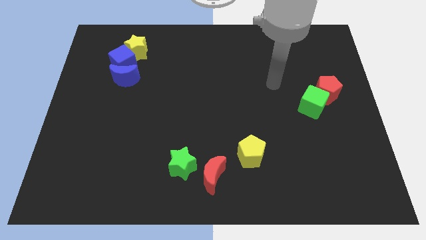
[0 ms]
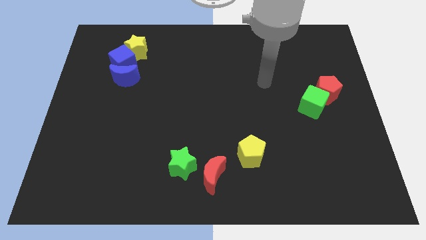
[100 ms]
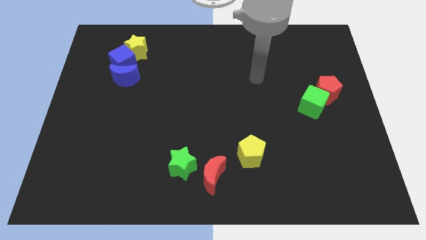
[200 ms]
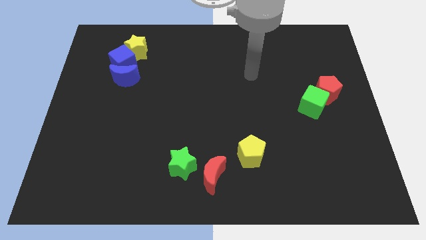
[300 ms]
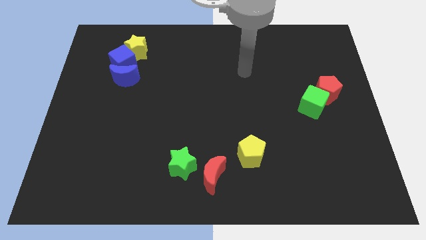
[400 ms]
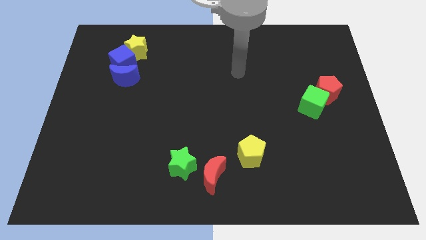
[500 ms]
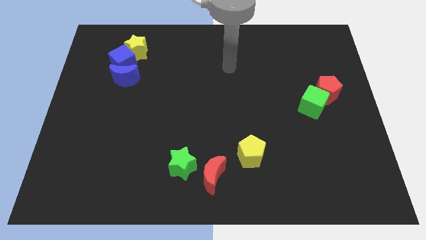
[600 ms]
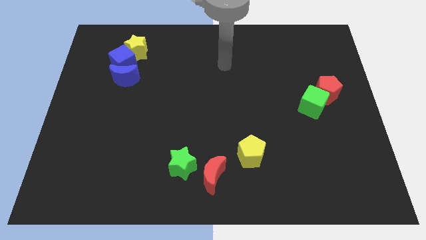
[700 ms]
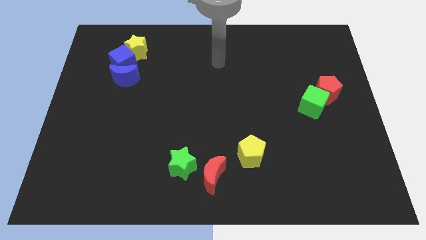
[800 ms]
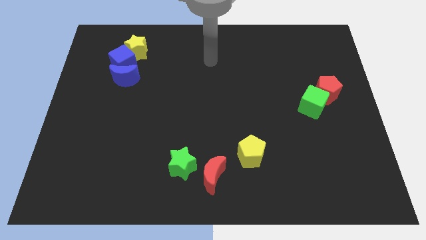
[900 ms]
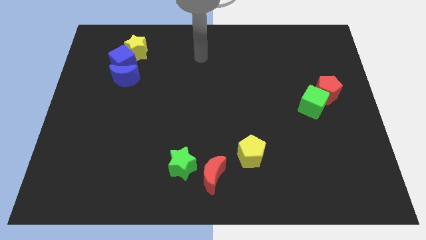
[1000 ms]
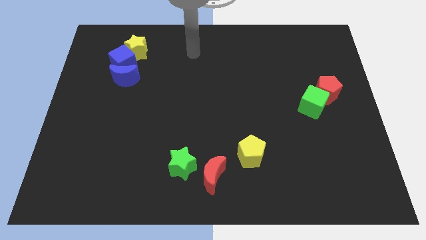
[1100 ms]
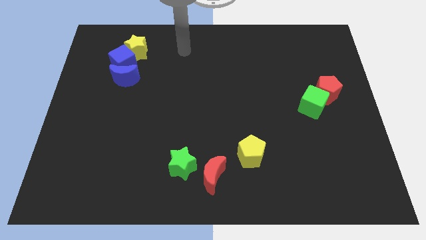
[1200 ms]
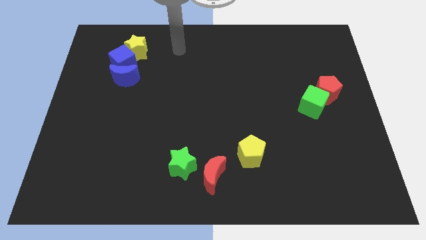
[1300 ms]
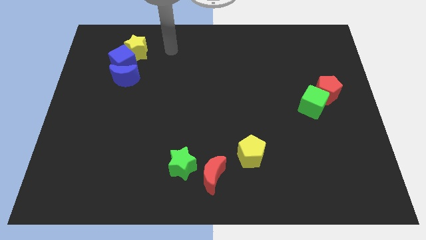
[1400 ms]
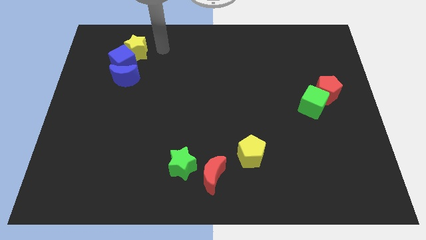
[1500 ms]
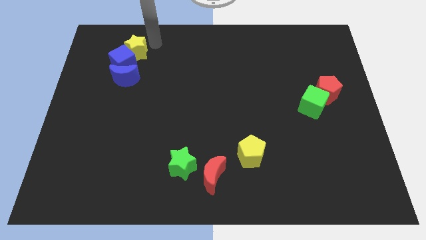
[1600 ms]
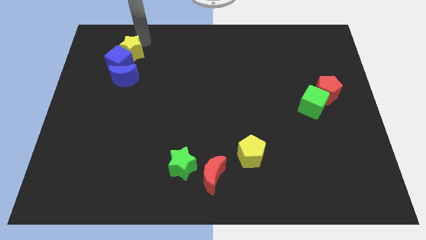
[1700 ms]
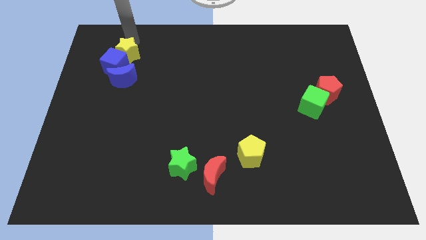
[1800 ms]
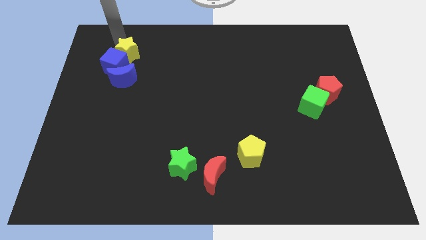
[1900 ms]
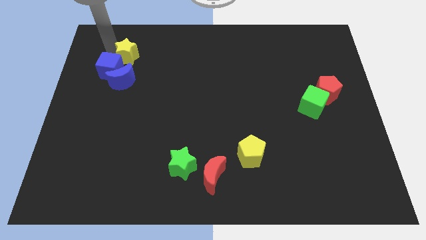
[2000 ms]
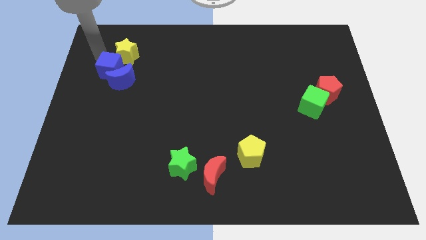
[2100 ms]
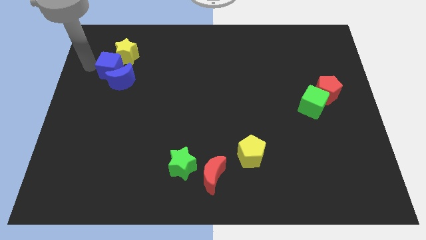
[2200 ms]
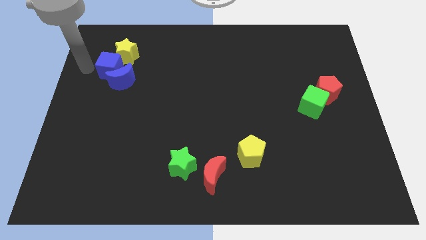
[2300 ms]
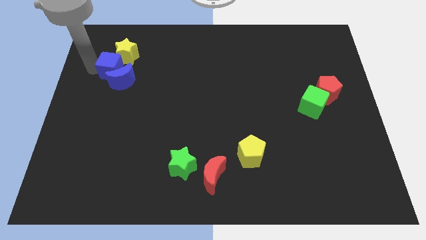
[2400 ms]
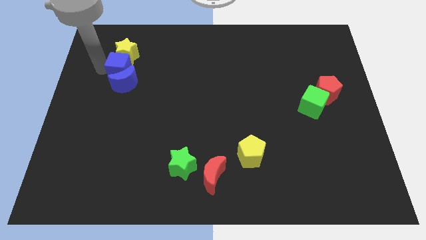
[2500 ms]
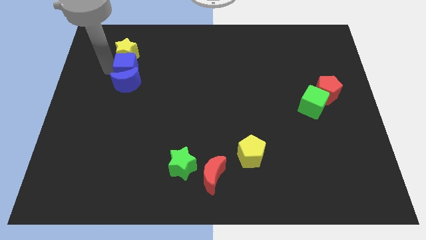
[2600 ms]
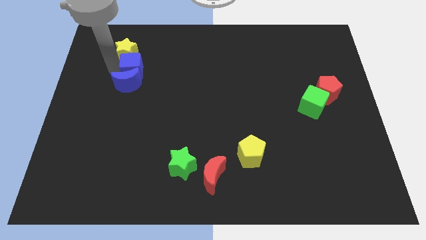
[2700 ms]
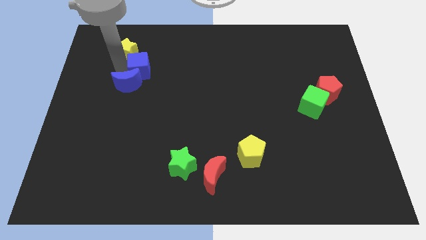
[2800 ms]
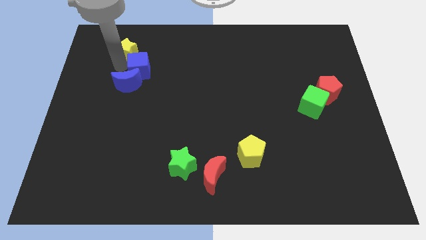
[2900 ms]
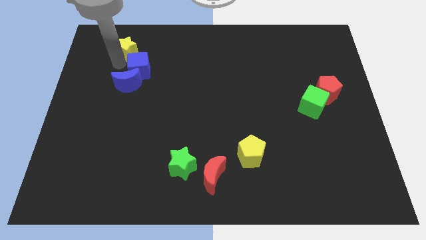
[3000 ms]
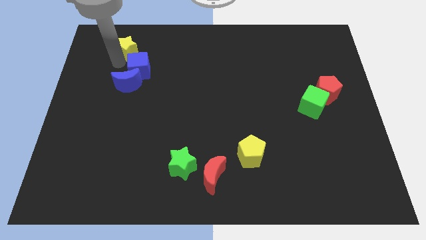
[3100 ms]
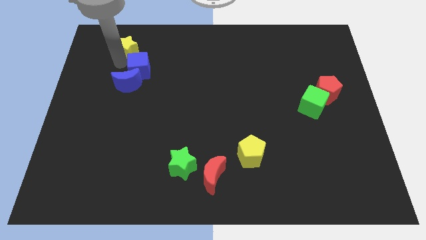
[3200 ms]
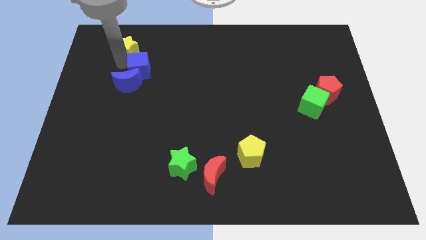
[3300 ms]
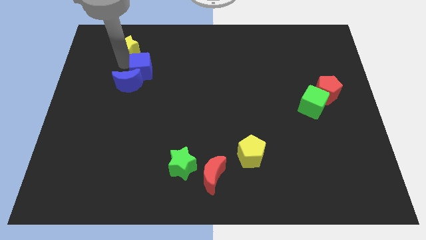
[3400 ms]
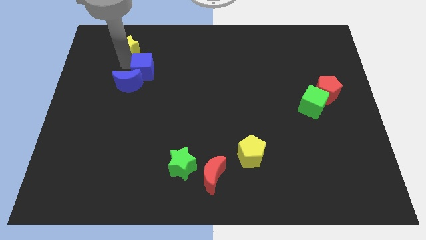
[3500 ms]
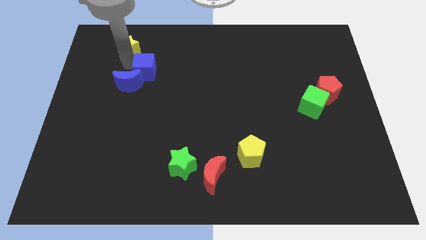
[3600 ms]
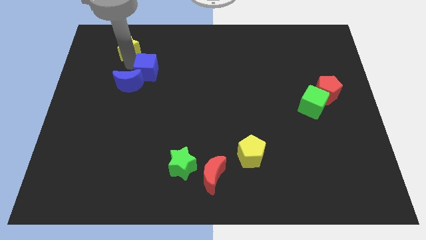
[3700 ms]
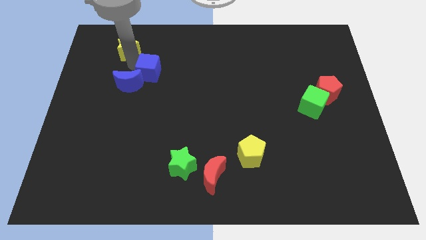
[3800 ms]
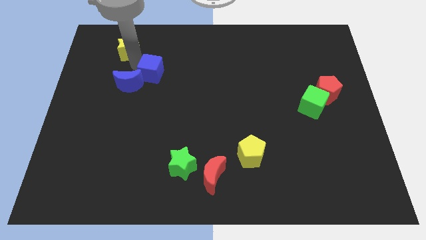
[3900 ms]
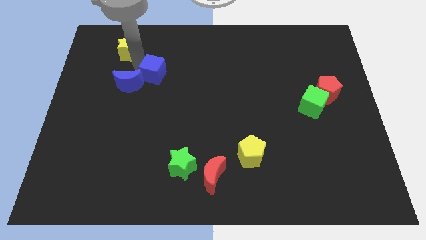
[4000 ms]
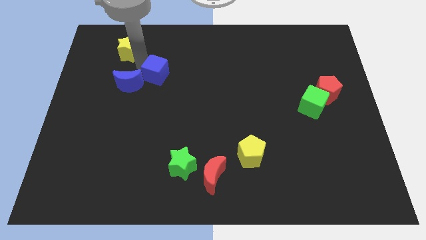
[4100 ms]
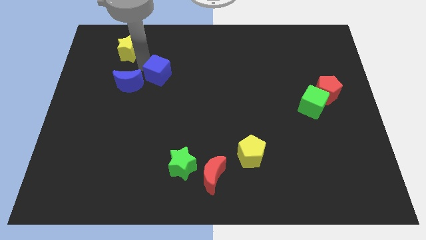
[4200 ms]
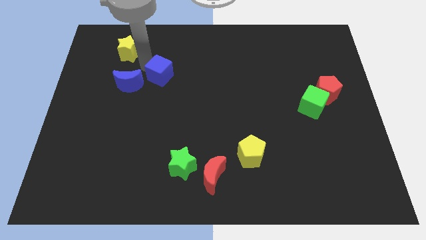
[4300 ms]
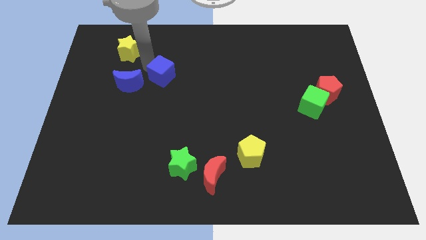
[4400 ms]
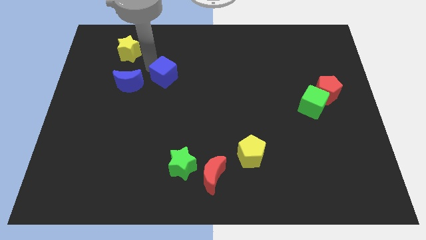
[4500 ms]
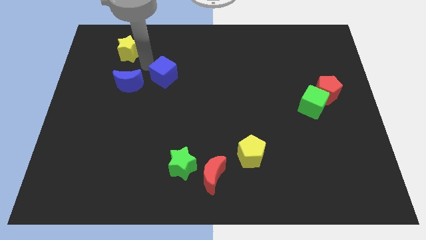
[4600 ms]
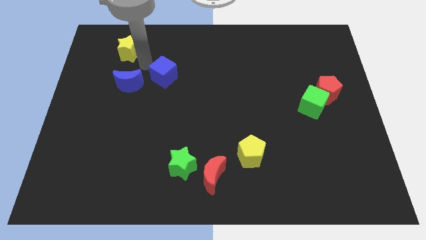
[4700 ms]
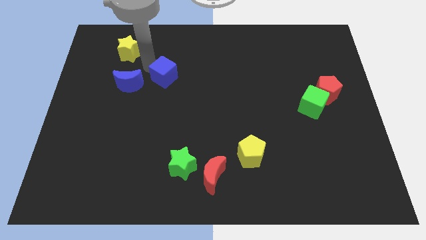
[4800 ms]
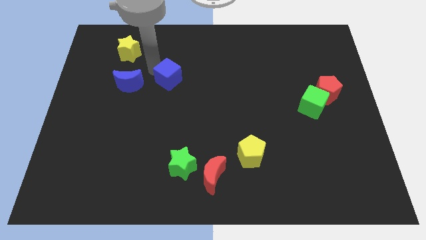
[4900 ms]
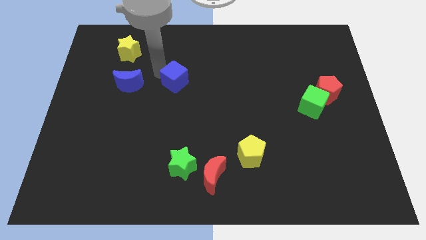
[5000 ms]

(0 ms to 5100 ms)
push the blue cube to the center

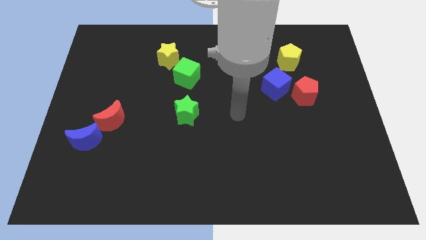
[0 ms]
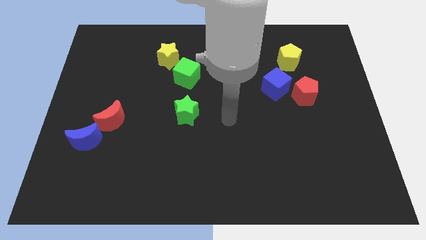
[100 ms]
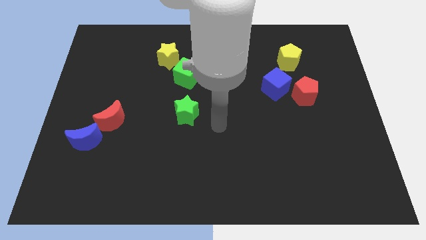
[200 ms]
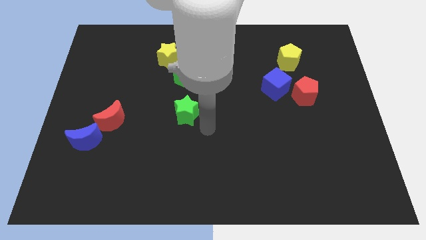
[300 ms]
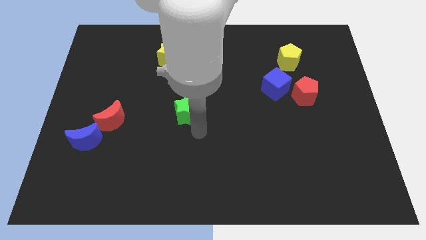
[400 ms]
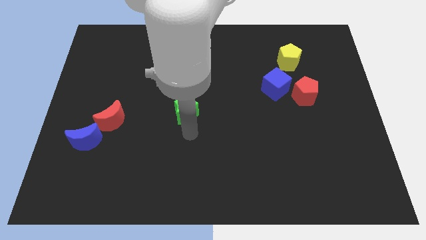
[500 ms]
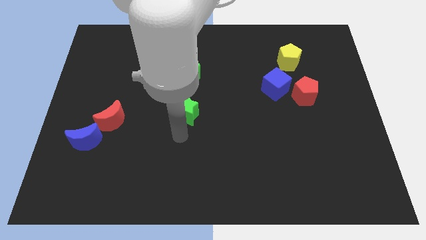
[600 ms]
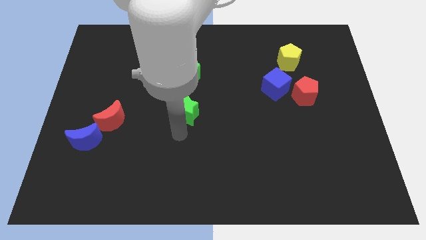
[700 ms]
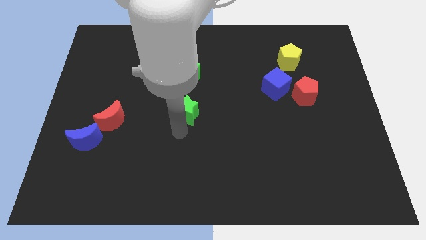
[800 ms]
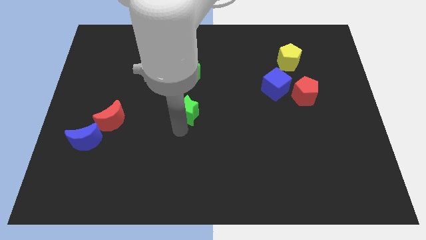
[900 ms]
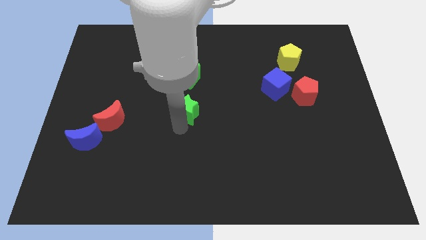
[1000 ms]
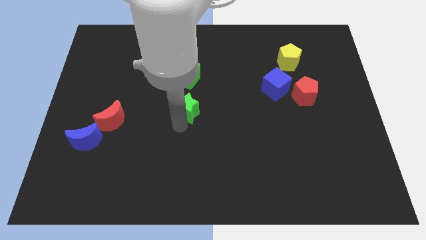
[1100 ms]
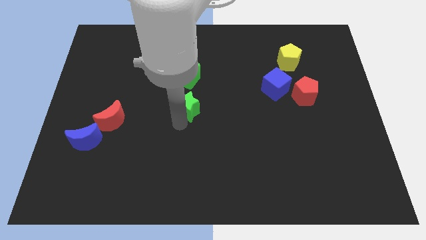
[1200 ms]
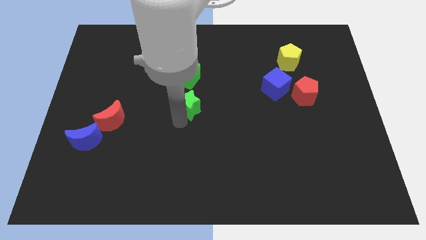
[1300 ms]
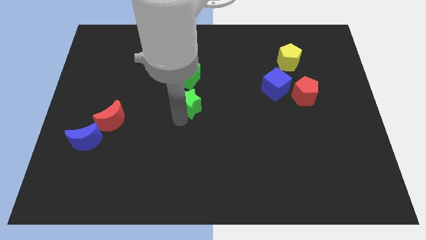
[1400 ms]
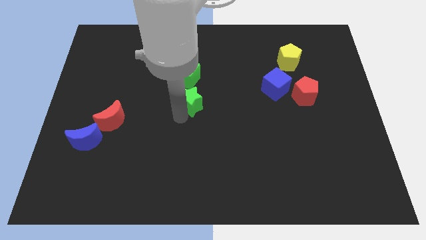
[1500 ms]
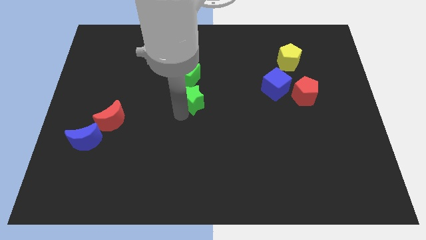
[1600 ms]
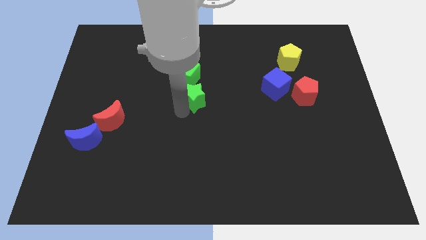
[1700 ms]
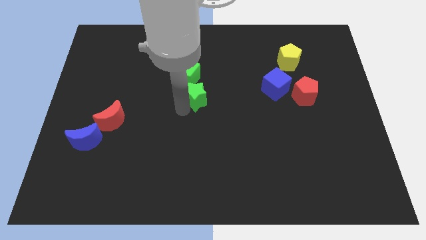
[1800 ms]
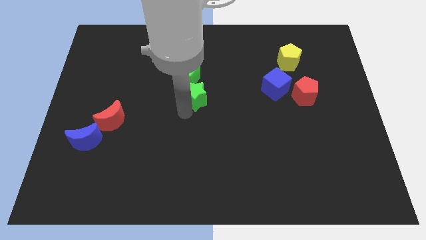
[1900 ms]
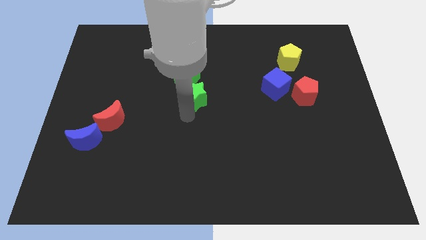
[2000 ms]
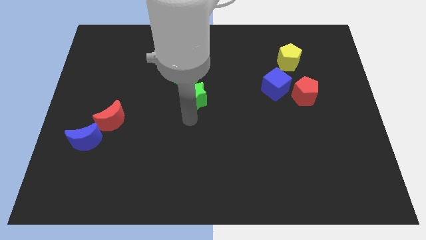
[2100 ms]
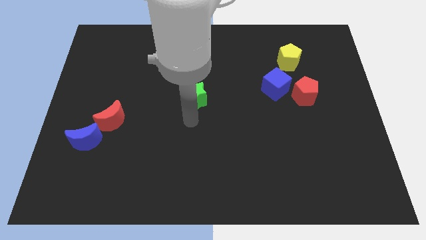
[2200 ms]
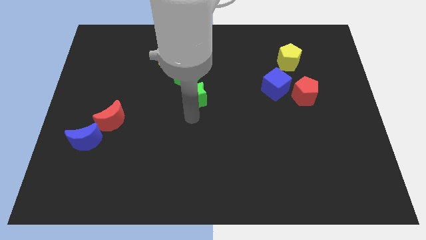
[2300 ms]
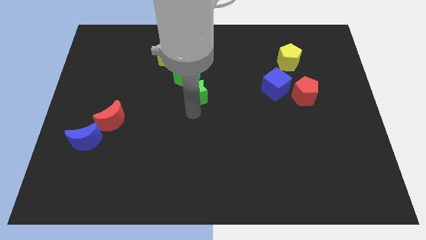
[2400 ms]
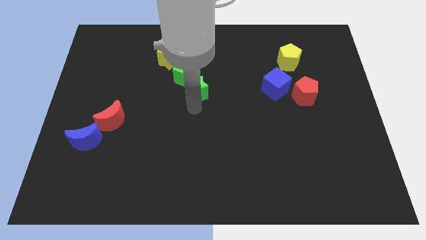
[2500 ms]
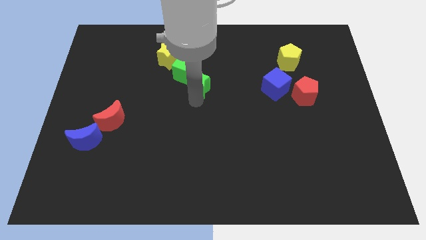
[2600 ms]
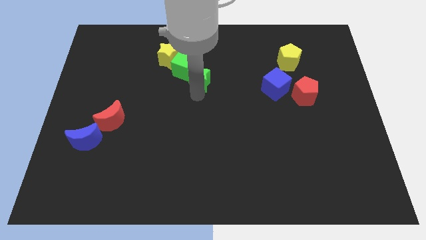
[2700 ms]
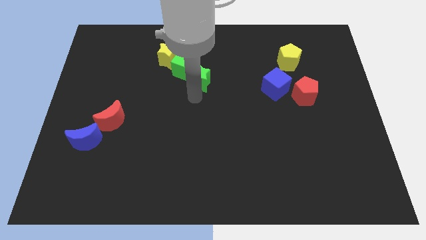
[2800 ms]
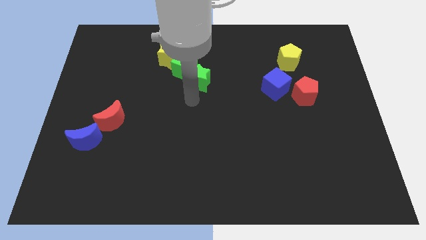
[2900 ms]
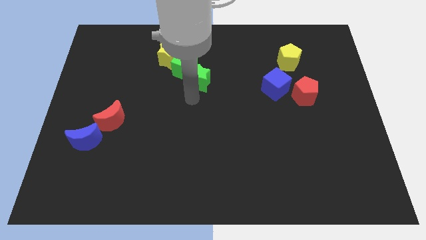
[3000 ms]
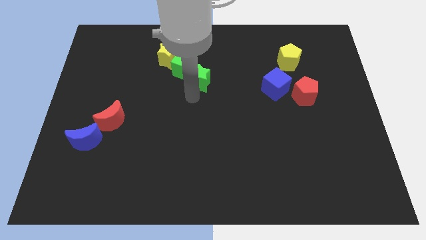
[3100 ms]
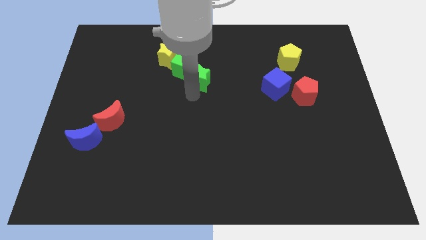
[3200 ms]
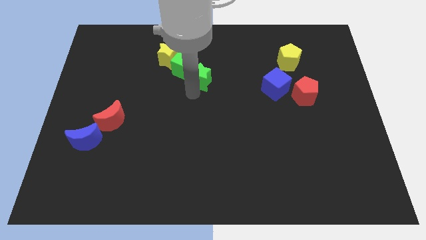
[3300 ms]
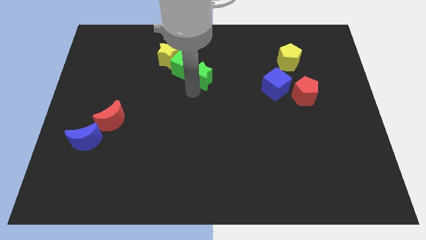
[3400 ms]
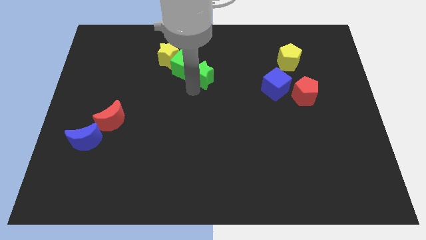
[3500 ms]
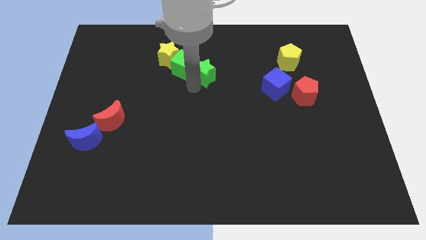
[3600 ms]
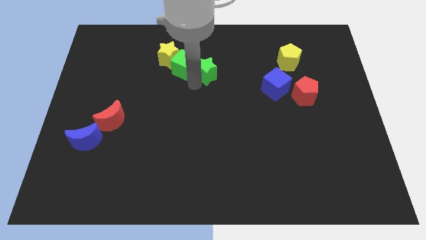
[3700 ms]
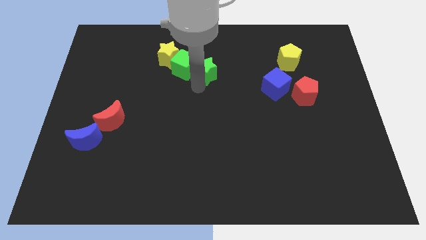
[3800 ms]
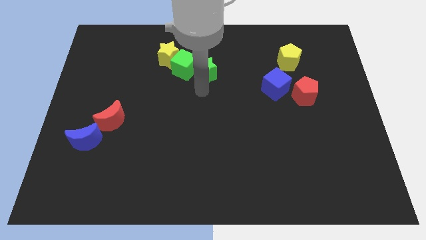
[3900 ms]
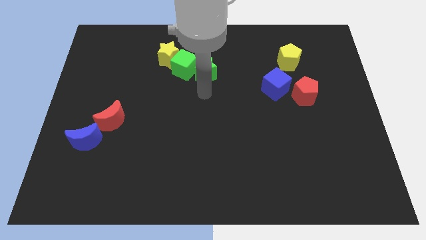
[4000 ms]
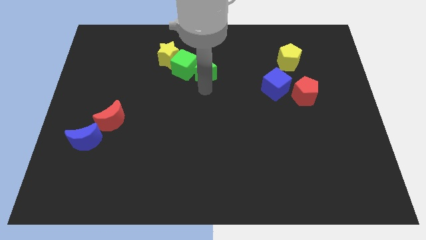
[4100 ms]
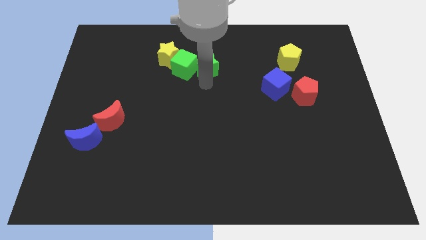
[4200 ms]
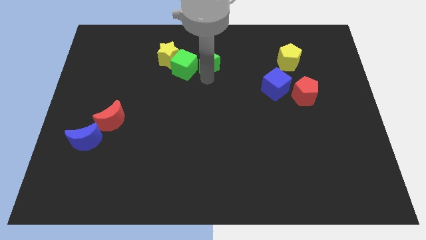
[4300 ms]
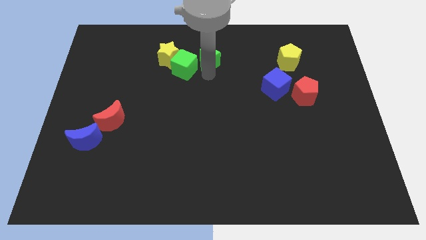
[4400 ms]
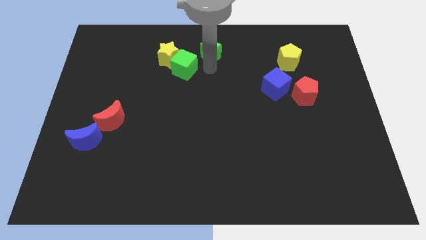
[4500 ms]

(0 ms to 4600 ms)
push the green star to the towards your base
